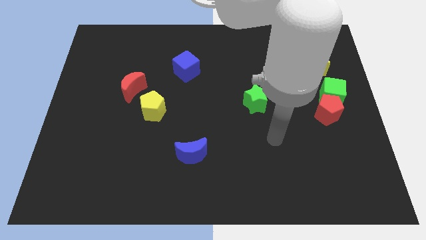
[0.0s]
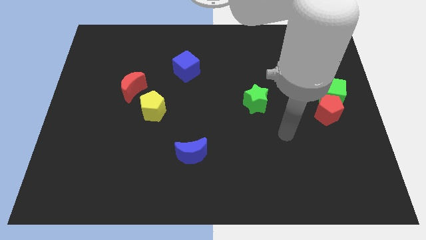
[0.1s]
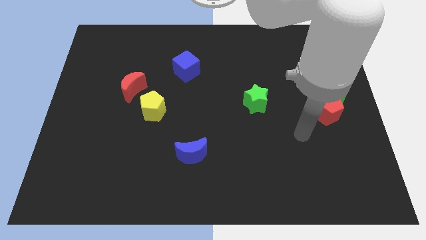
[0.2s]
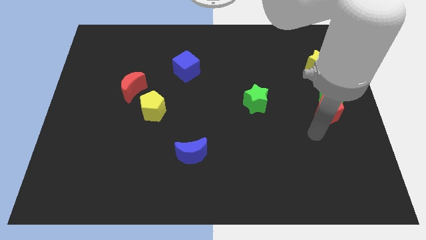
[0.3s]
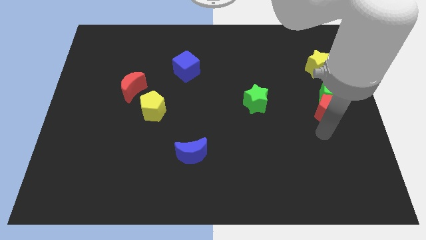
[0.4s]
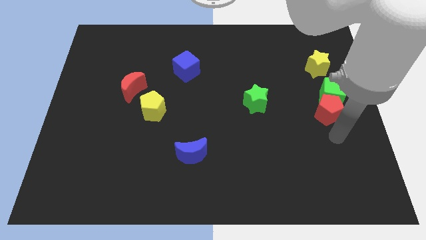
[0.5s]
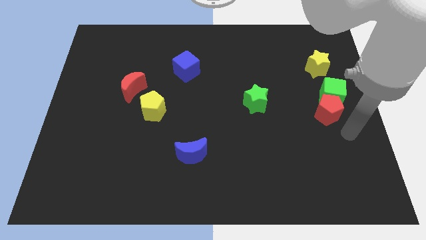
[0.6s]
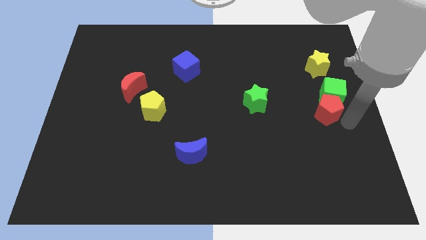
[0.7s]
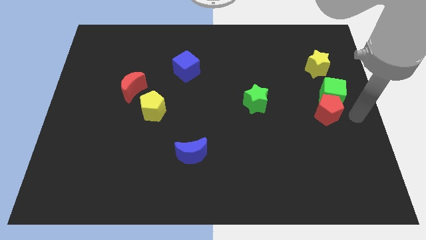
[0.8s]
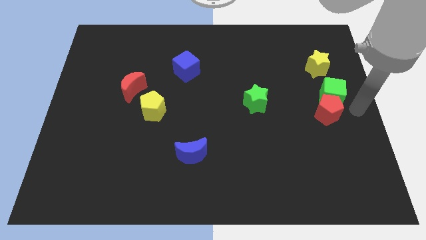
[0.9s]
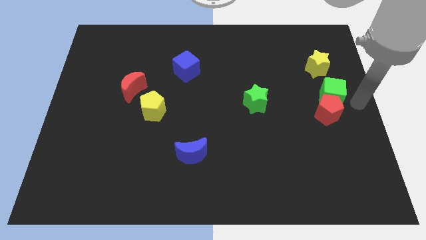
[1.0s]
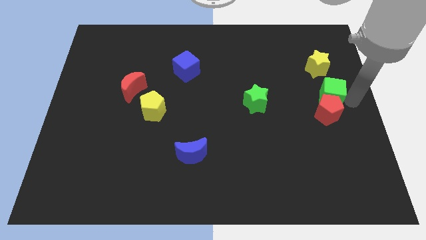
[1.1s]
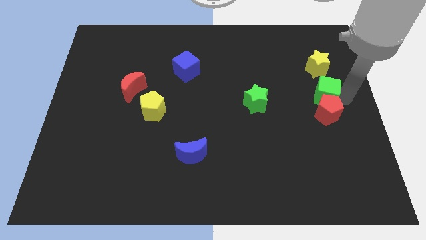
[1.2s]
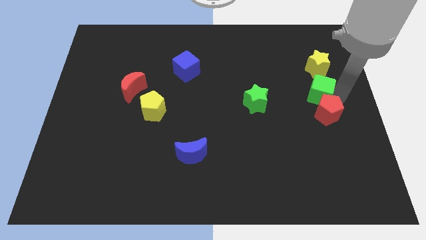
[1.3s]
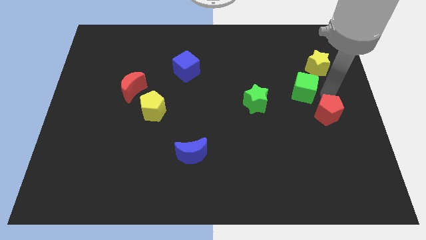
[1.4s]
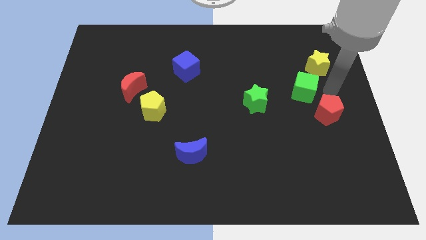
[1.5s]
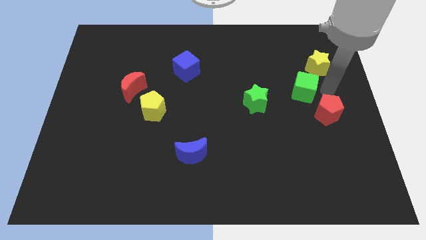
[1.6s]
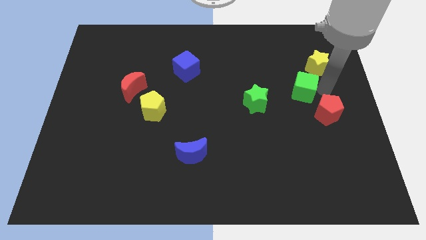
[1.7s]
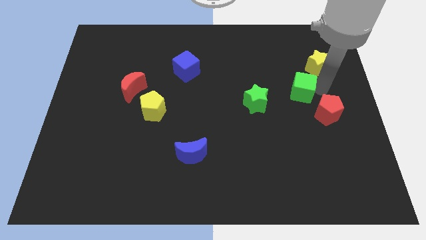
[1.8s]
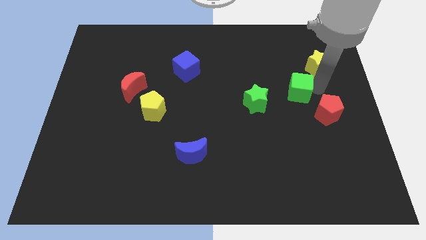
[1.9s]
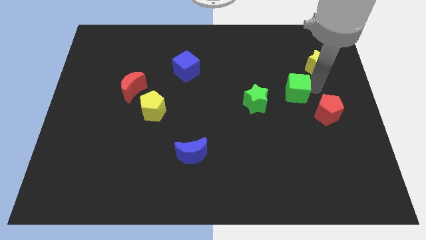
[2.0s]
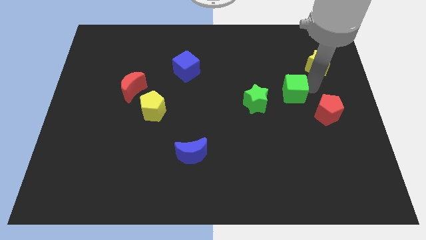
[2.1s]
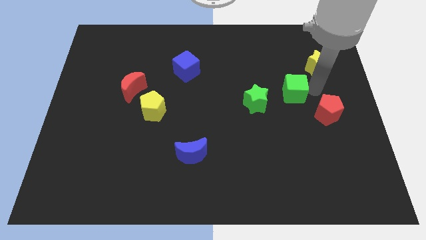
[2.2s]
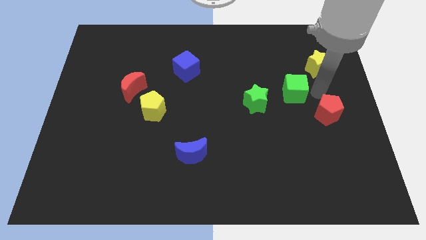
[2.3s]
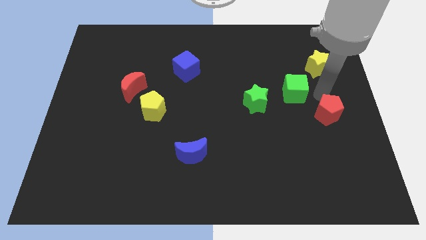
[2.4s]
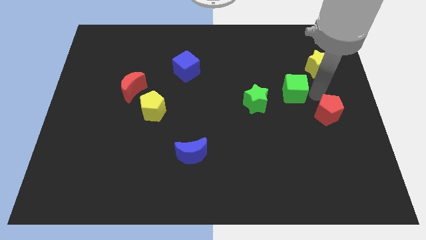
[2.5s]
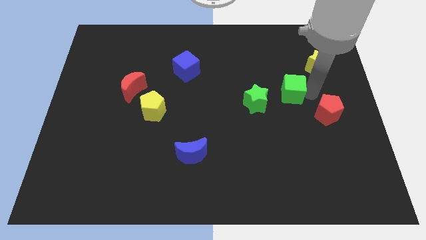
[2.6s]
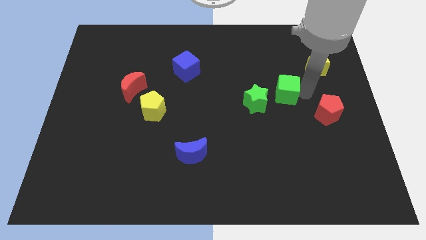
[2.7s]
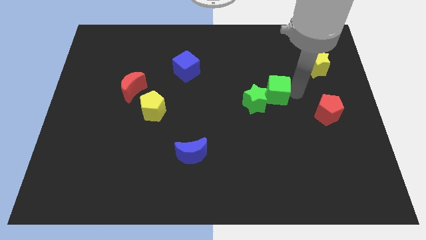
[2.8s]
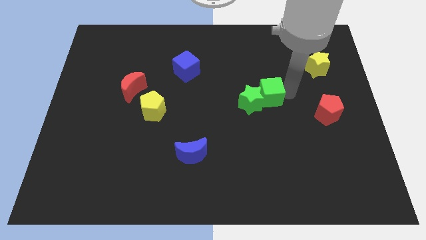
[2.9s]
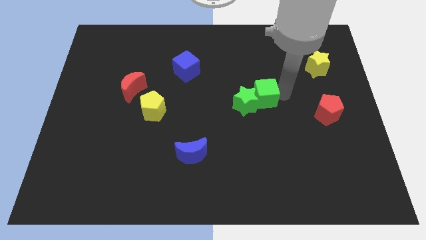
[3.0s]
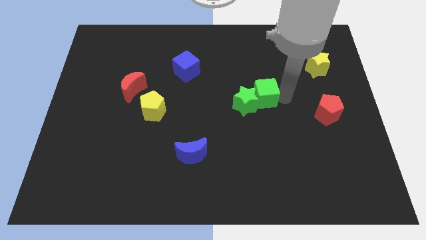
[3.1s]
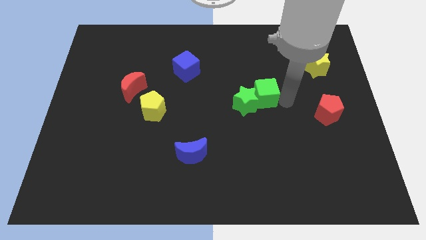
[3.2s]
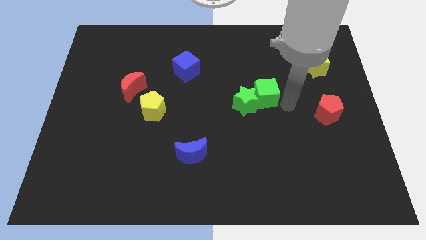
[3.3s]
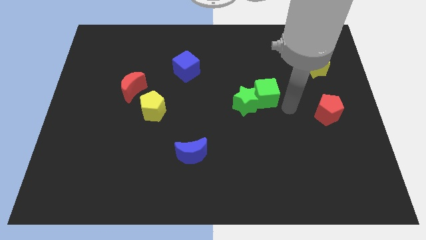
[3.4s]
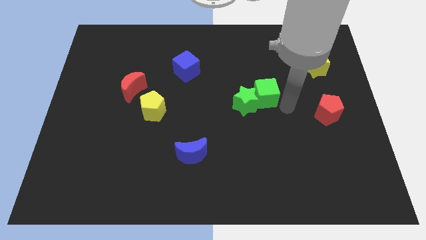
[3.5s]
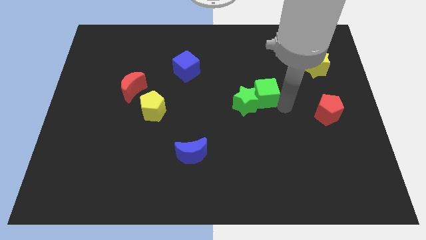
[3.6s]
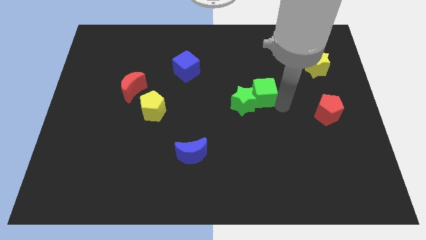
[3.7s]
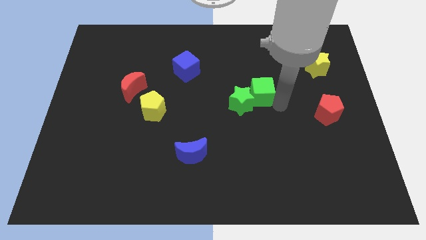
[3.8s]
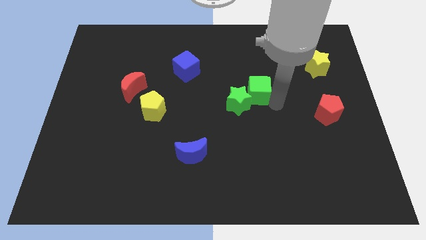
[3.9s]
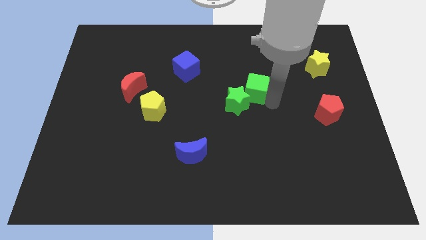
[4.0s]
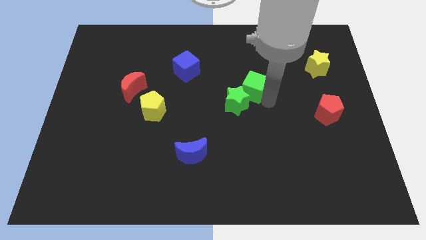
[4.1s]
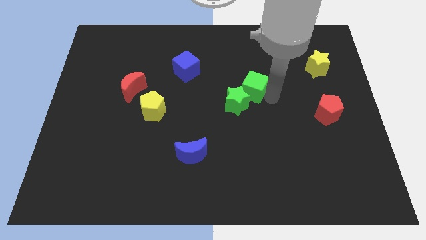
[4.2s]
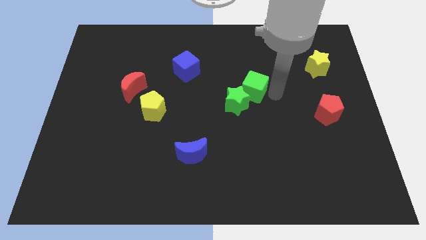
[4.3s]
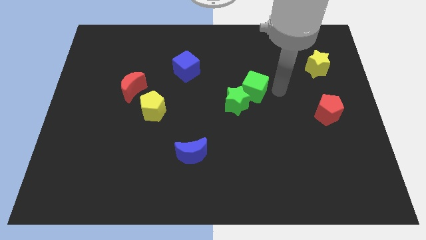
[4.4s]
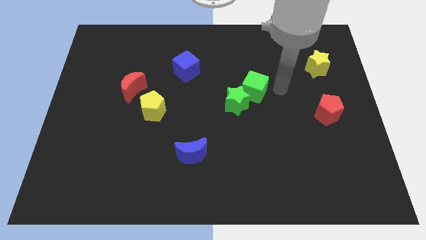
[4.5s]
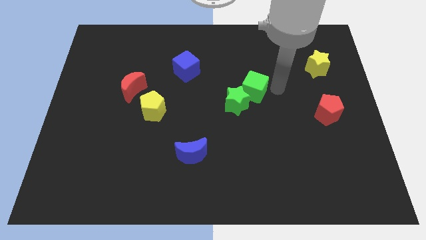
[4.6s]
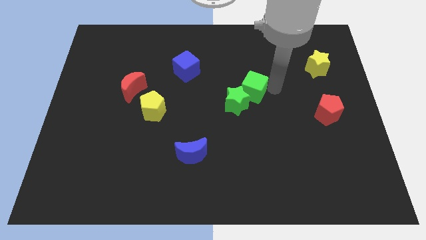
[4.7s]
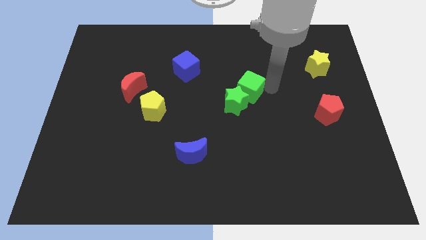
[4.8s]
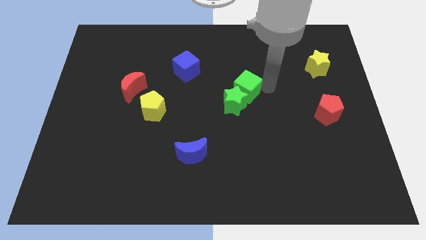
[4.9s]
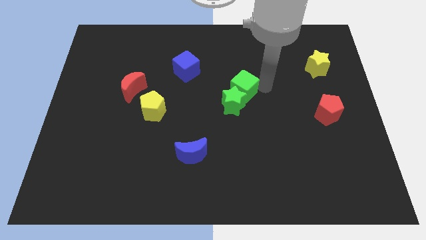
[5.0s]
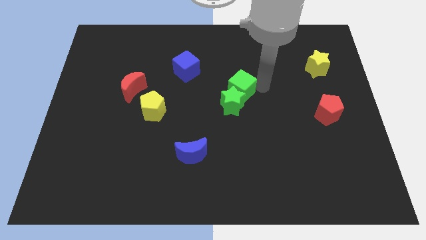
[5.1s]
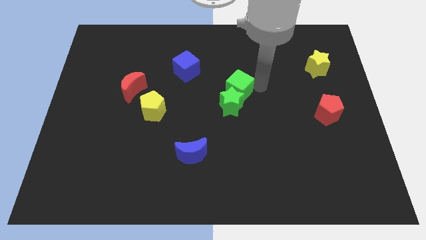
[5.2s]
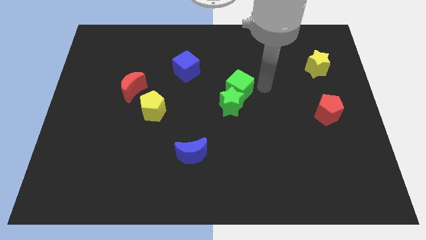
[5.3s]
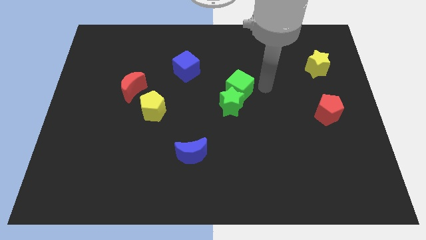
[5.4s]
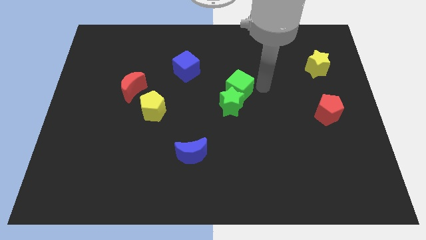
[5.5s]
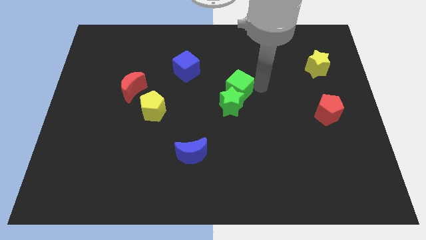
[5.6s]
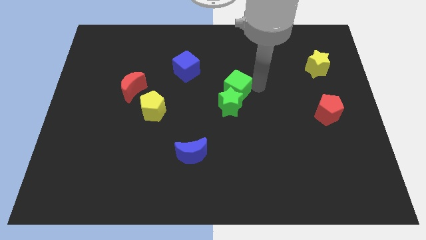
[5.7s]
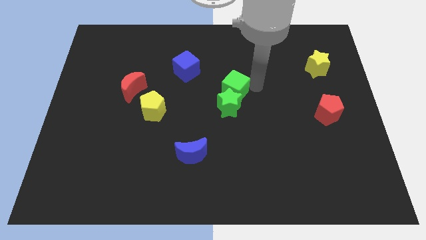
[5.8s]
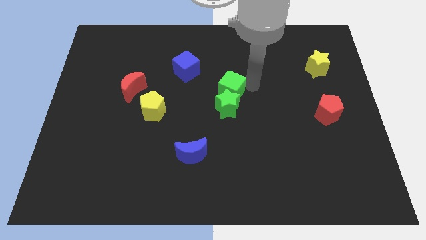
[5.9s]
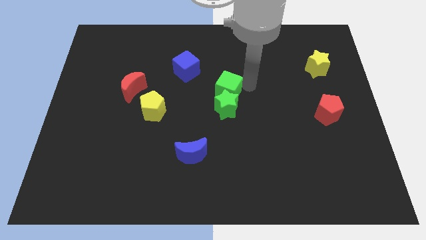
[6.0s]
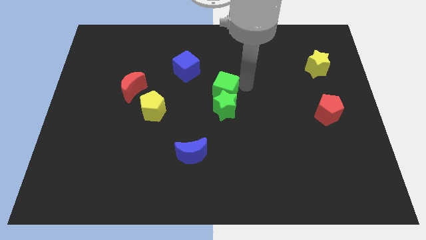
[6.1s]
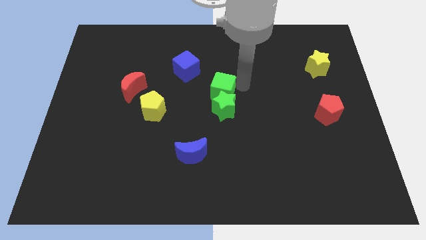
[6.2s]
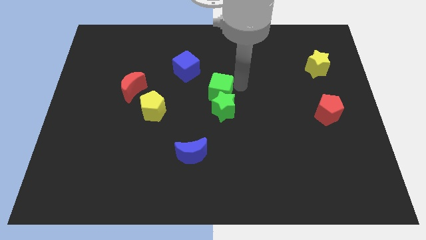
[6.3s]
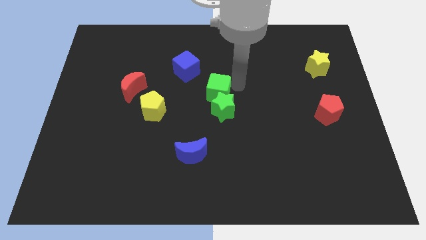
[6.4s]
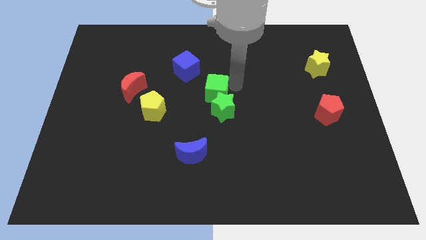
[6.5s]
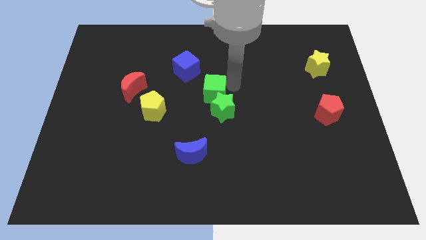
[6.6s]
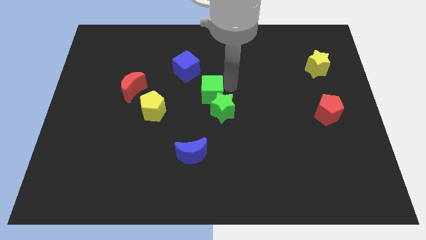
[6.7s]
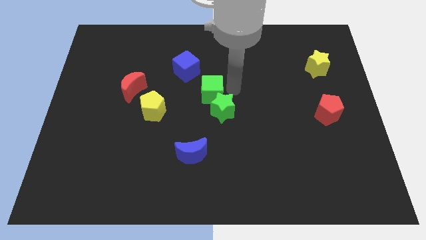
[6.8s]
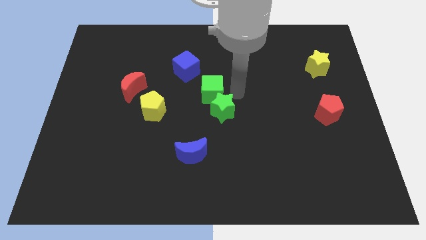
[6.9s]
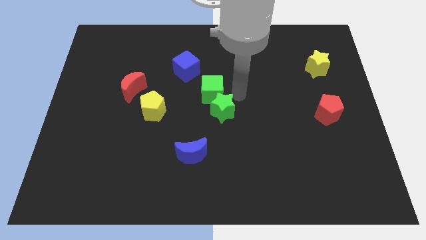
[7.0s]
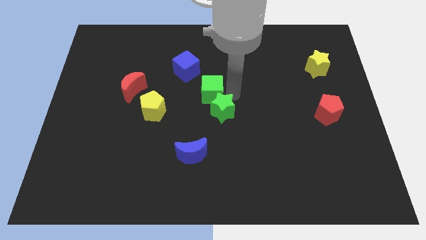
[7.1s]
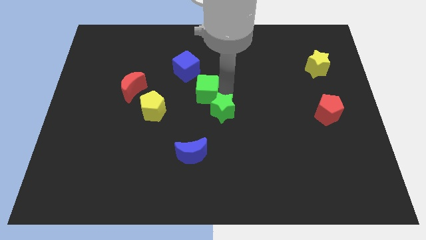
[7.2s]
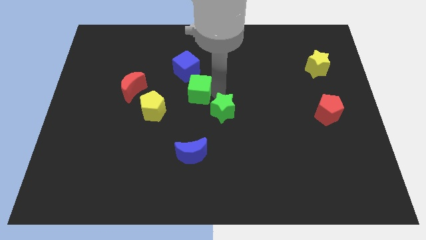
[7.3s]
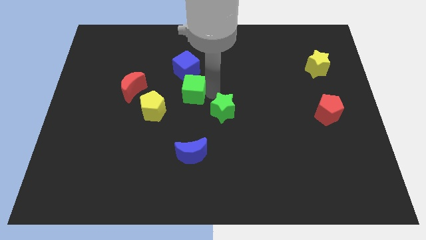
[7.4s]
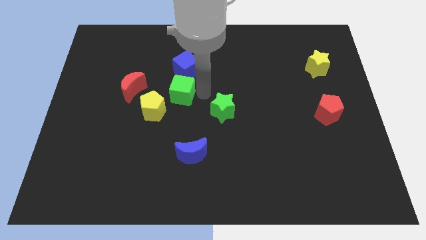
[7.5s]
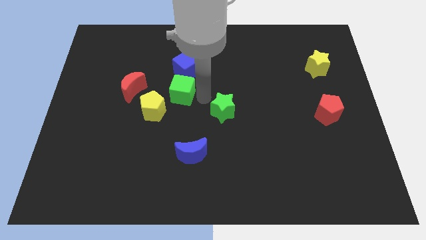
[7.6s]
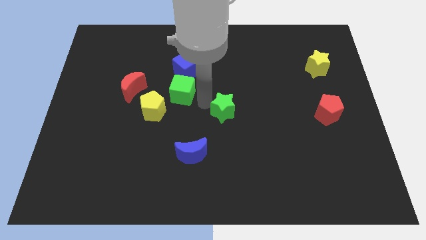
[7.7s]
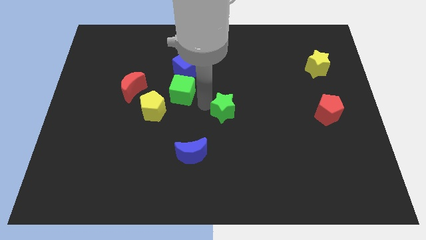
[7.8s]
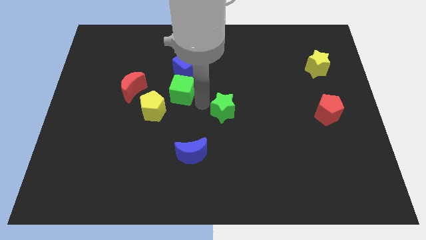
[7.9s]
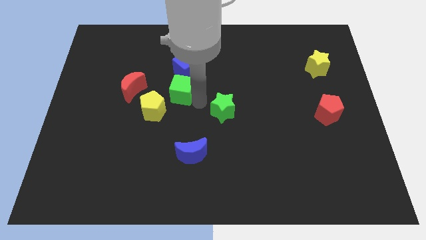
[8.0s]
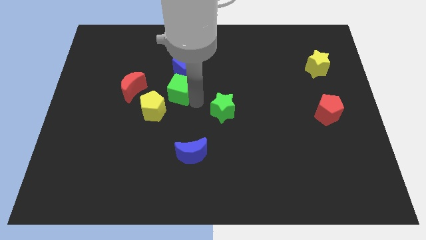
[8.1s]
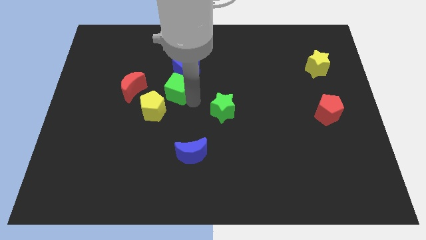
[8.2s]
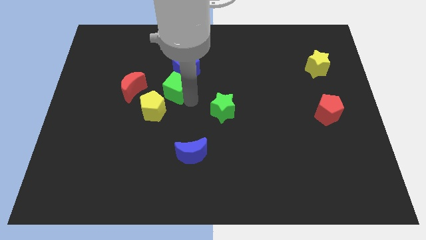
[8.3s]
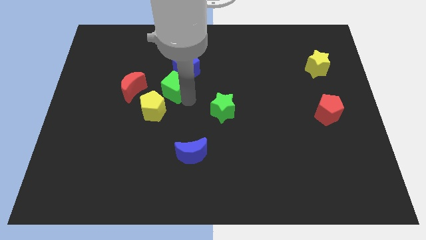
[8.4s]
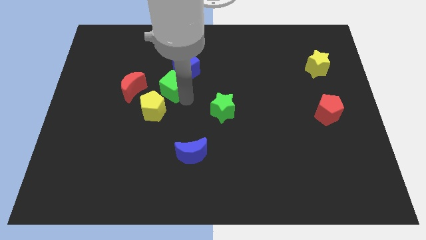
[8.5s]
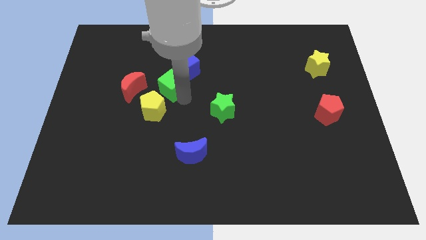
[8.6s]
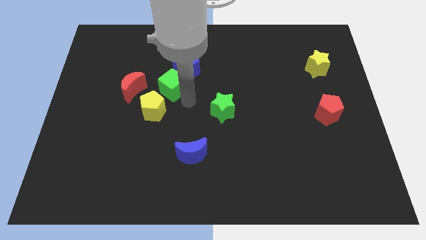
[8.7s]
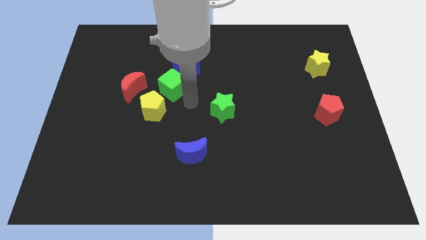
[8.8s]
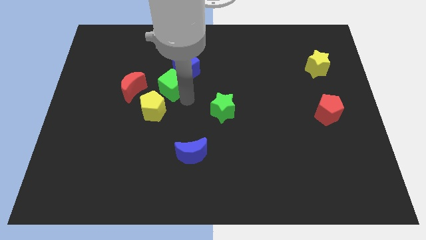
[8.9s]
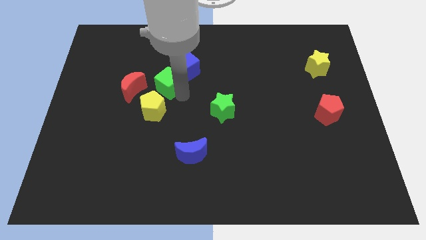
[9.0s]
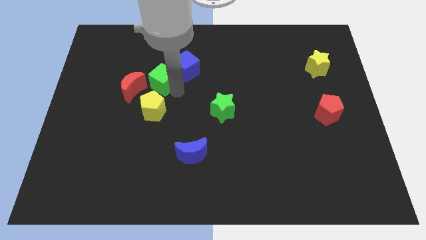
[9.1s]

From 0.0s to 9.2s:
put the green cube to the top right side of the red moon
